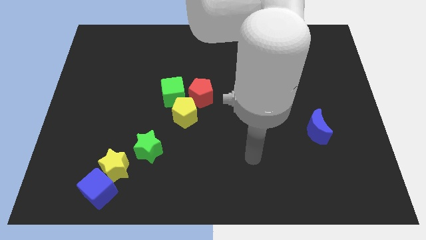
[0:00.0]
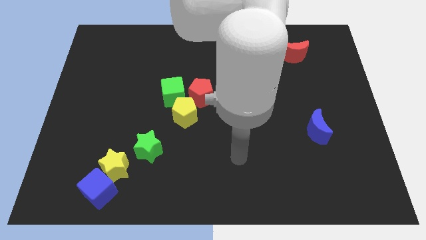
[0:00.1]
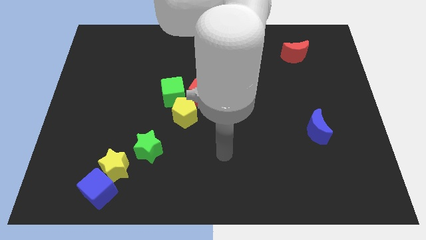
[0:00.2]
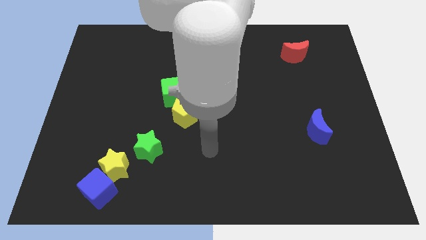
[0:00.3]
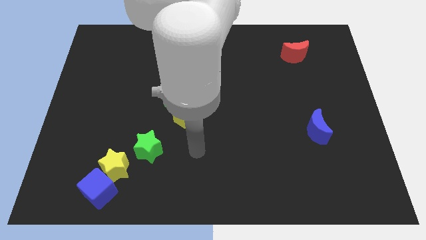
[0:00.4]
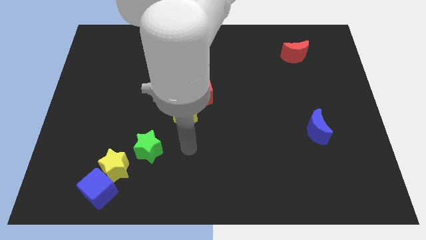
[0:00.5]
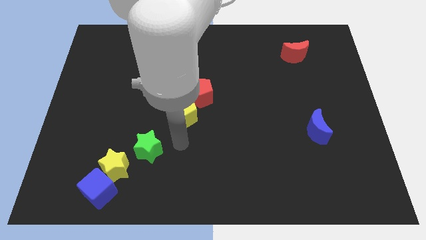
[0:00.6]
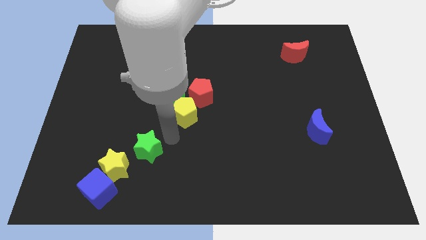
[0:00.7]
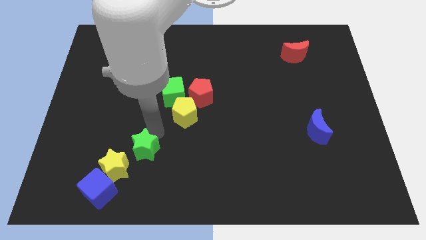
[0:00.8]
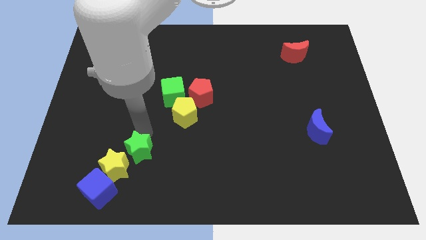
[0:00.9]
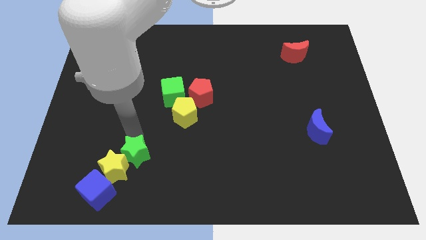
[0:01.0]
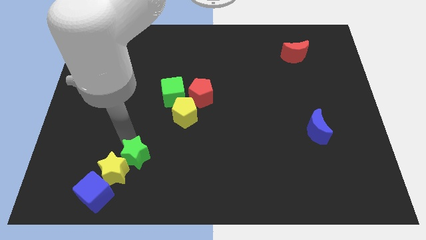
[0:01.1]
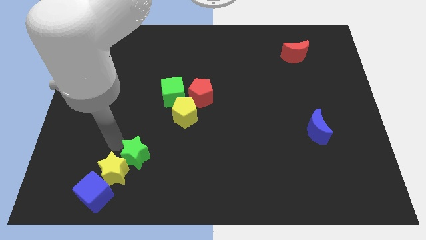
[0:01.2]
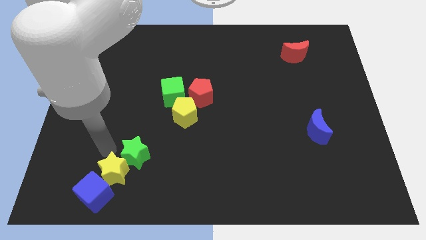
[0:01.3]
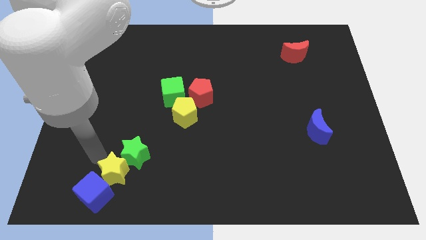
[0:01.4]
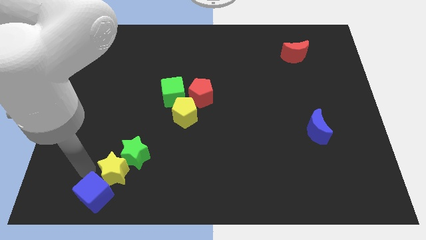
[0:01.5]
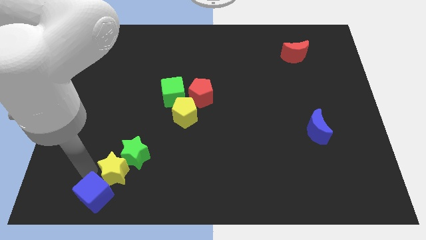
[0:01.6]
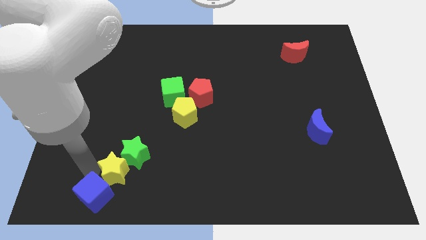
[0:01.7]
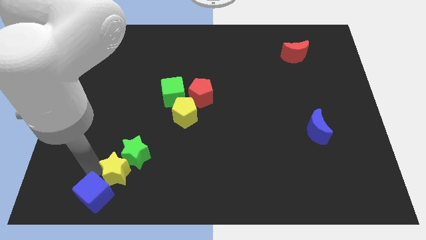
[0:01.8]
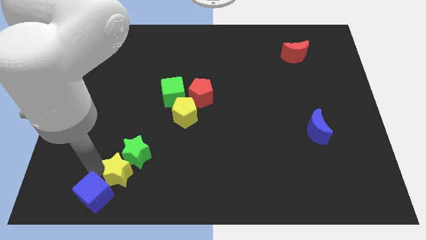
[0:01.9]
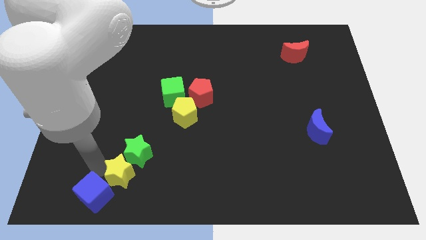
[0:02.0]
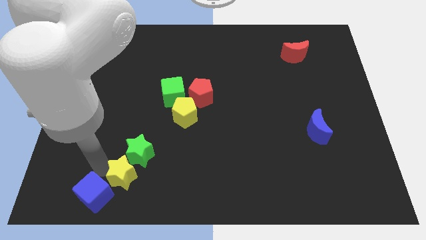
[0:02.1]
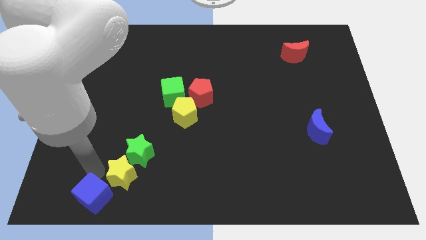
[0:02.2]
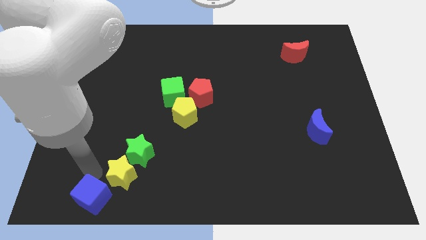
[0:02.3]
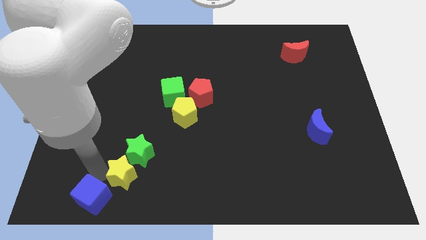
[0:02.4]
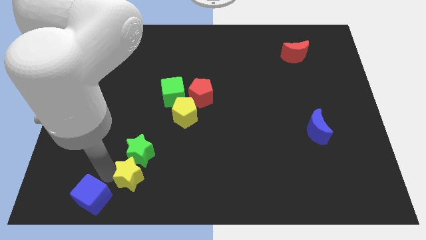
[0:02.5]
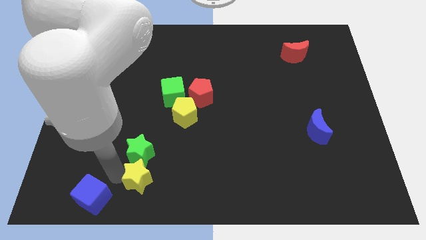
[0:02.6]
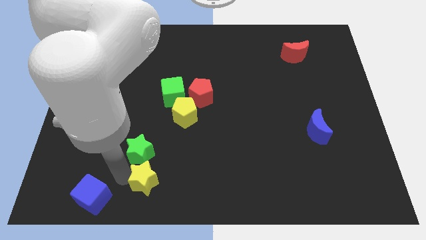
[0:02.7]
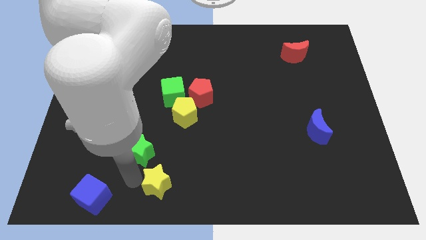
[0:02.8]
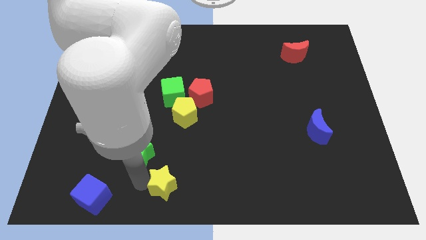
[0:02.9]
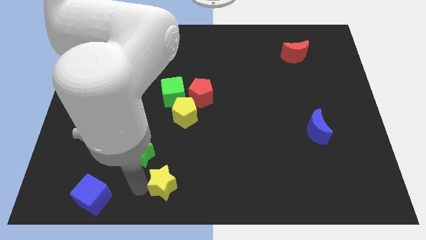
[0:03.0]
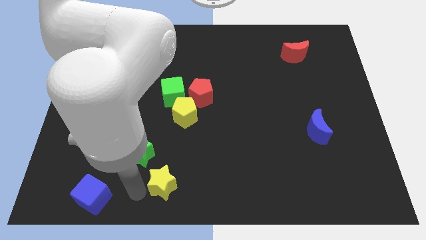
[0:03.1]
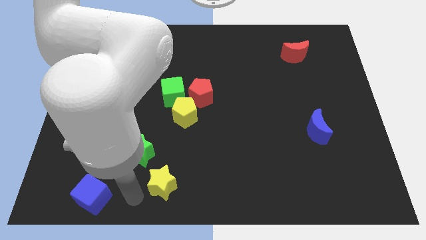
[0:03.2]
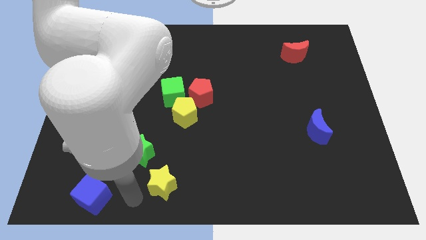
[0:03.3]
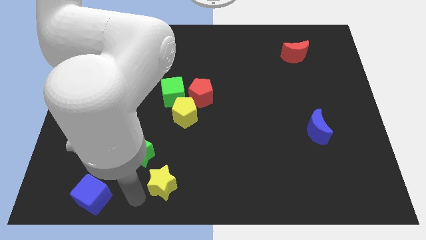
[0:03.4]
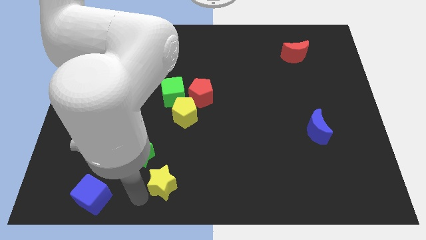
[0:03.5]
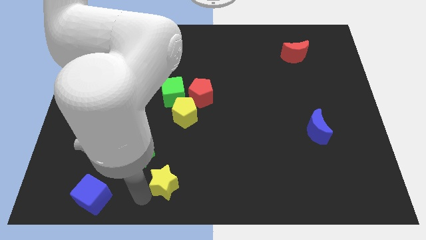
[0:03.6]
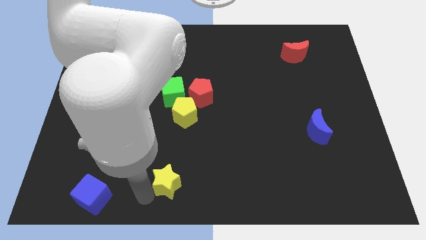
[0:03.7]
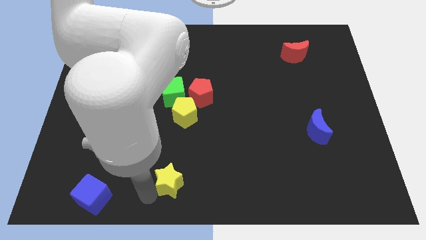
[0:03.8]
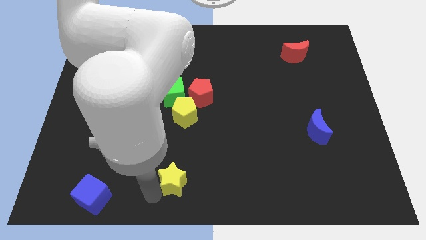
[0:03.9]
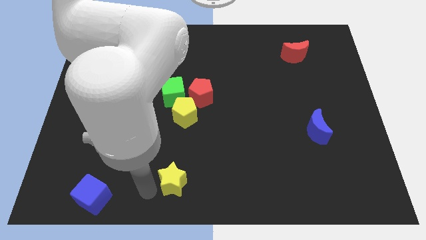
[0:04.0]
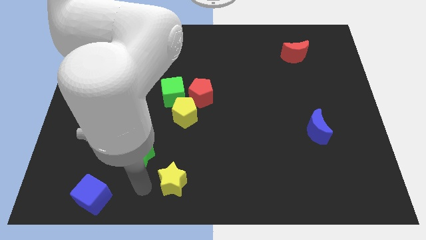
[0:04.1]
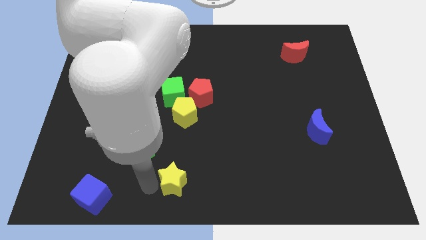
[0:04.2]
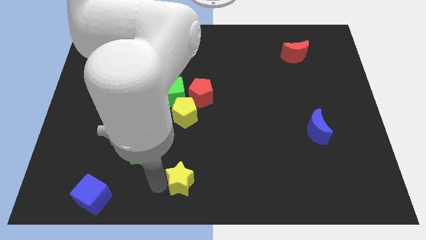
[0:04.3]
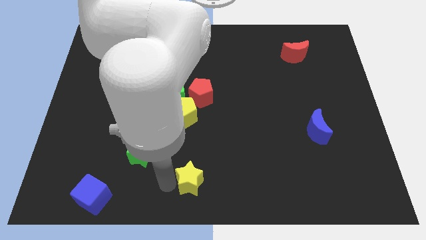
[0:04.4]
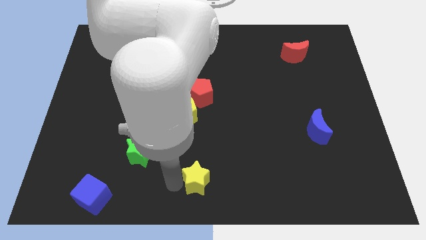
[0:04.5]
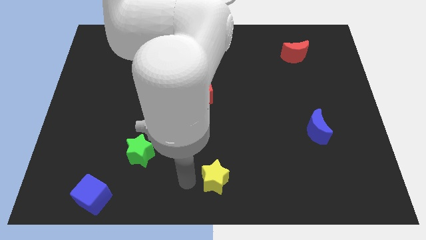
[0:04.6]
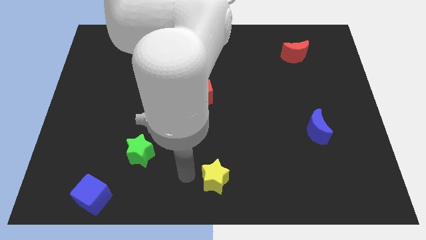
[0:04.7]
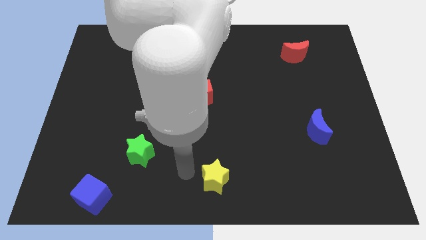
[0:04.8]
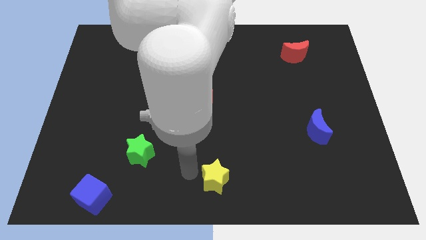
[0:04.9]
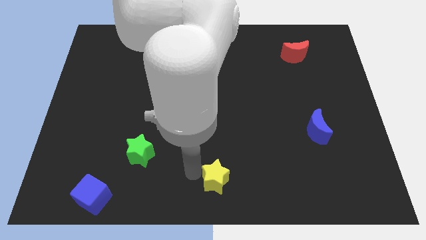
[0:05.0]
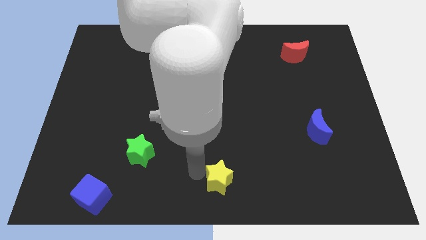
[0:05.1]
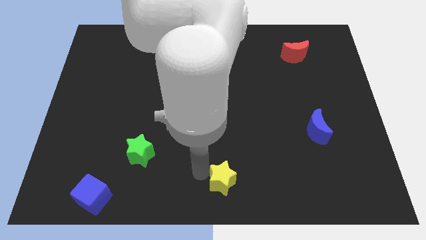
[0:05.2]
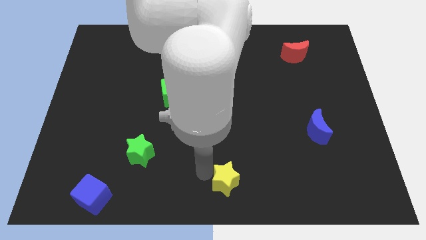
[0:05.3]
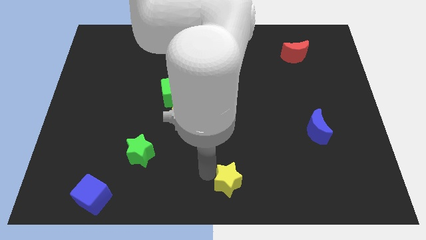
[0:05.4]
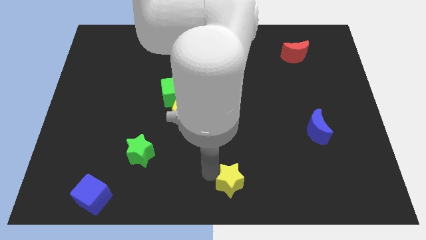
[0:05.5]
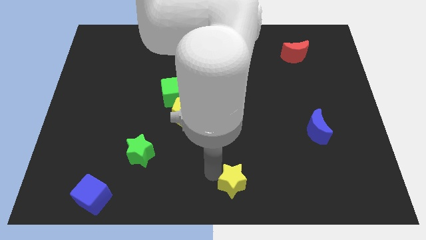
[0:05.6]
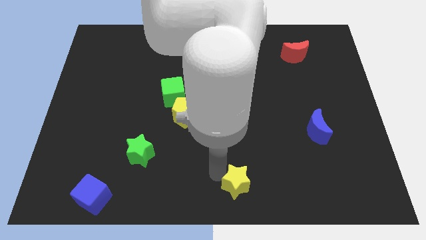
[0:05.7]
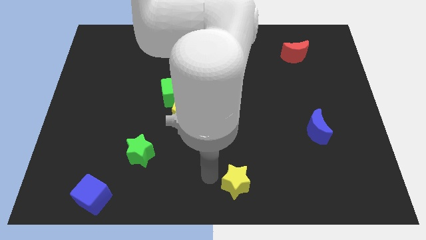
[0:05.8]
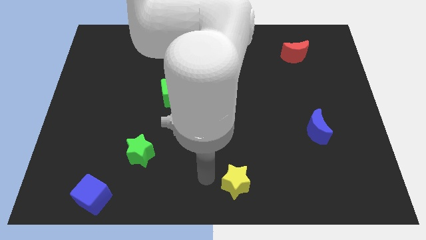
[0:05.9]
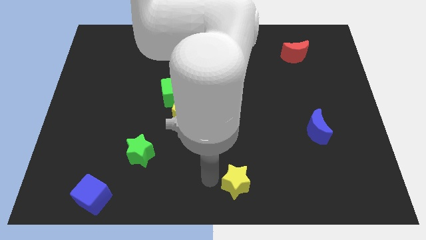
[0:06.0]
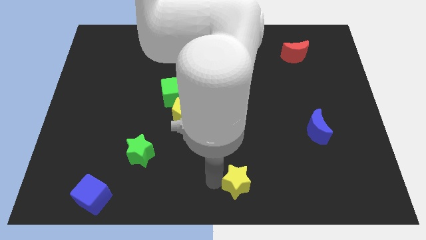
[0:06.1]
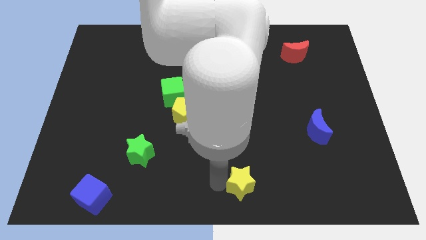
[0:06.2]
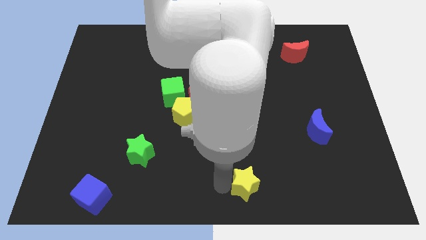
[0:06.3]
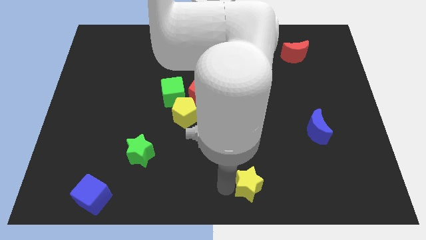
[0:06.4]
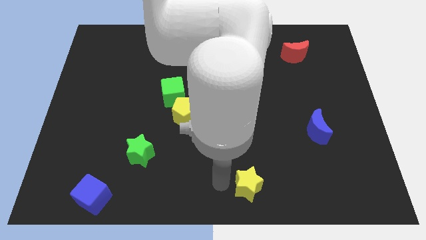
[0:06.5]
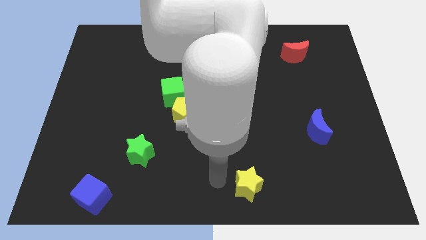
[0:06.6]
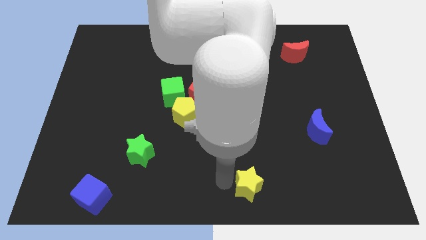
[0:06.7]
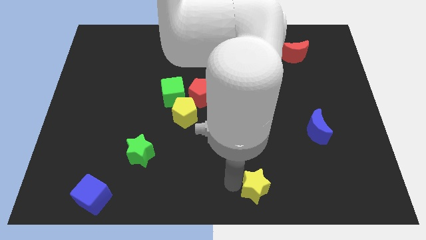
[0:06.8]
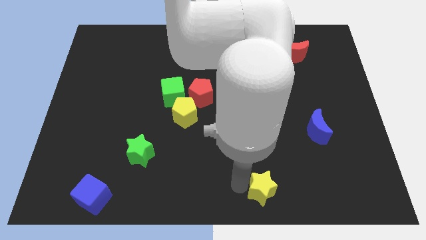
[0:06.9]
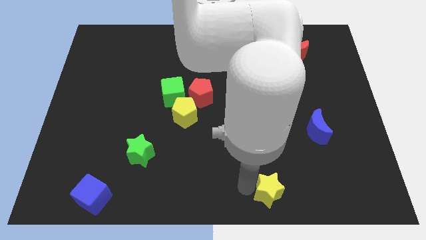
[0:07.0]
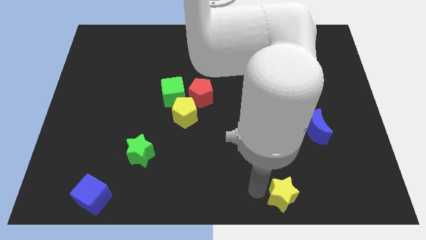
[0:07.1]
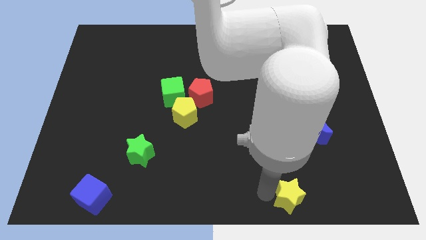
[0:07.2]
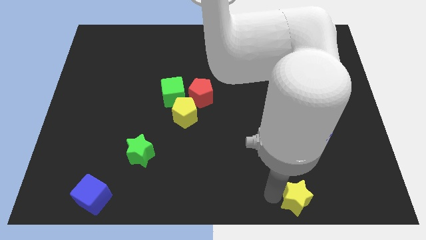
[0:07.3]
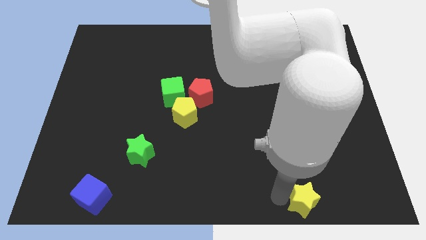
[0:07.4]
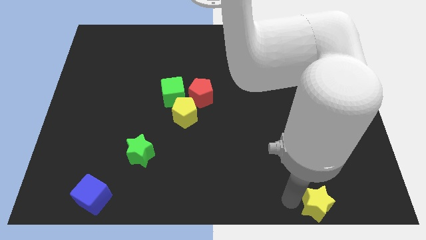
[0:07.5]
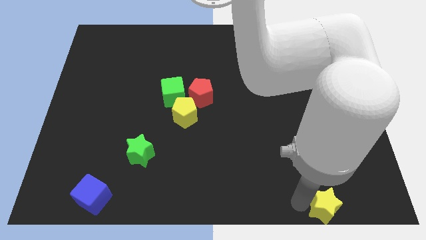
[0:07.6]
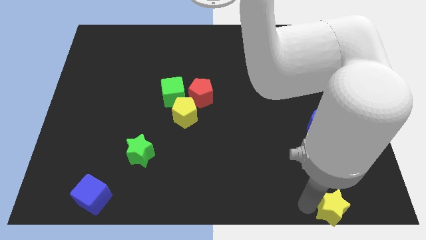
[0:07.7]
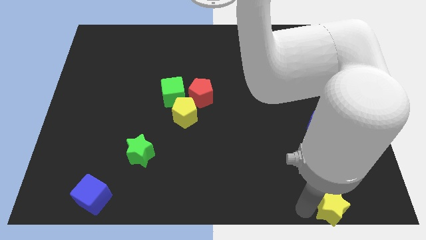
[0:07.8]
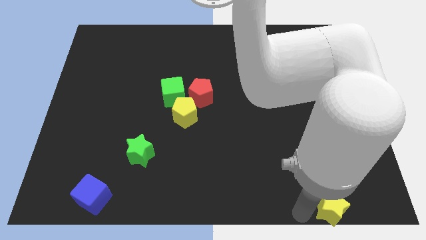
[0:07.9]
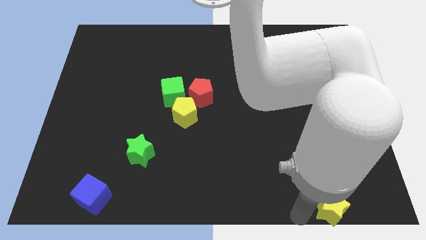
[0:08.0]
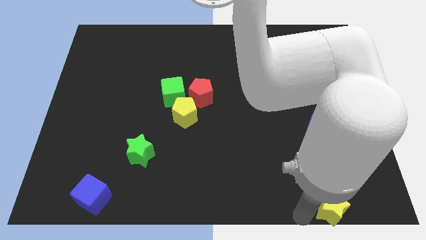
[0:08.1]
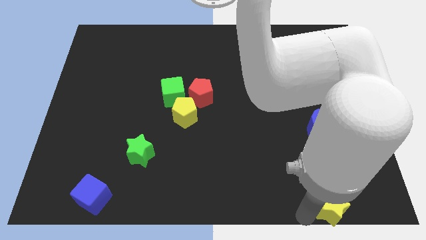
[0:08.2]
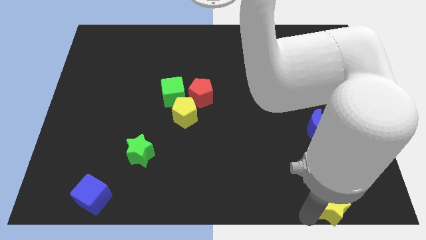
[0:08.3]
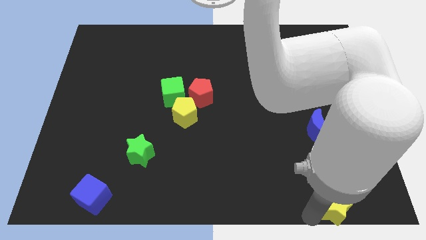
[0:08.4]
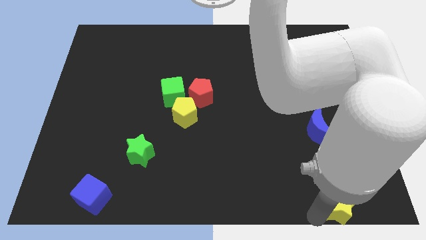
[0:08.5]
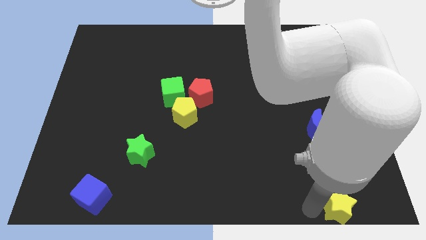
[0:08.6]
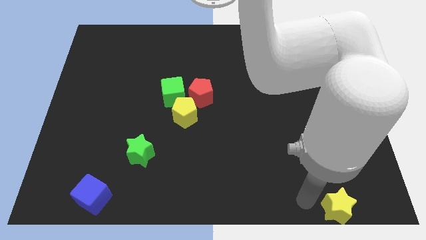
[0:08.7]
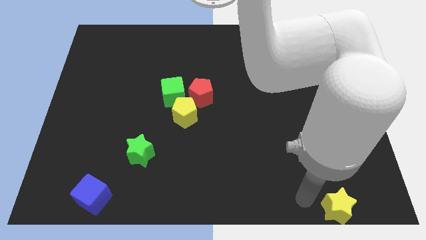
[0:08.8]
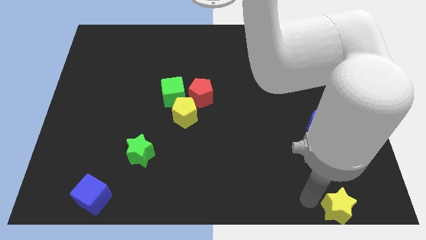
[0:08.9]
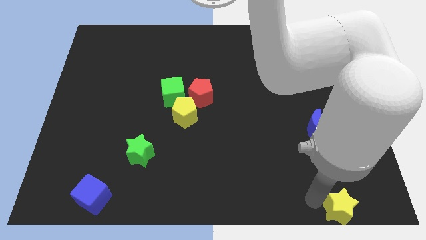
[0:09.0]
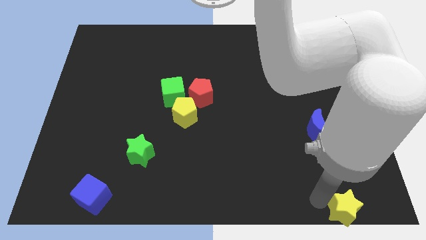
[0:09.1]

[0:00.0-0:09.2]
move the yellow star to the lower right corner
